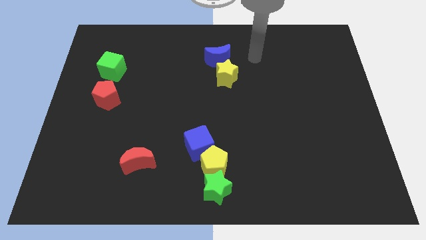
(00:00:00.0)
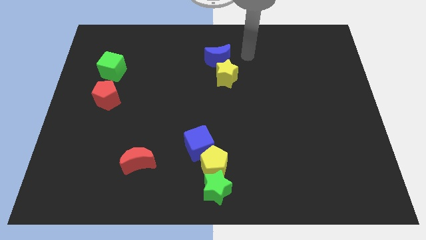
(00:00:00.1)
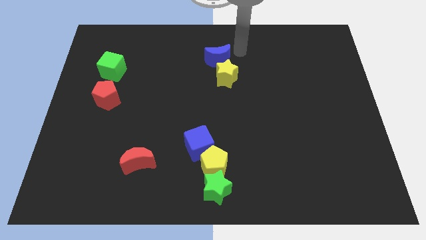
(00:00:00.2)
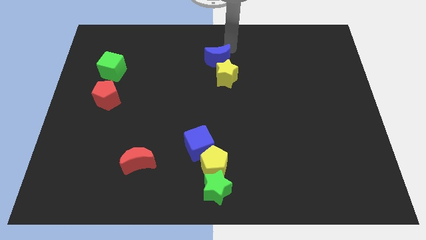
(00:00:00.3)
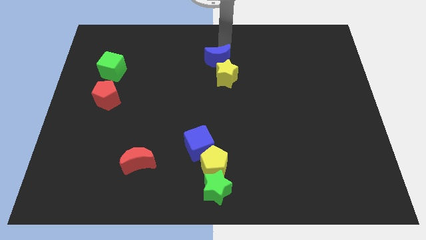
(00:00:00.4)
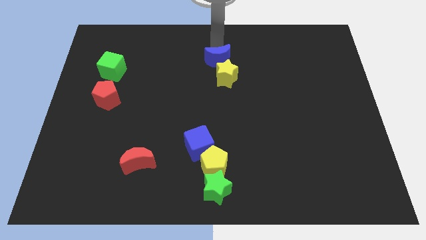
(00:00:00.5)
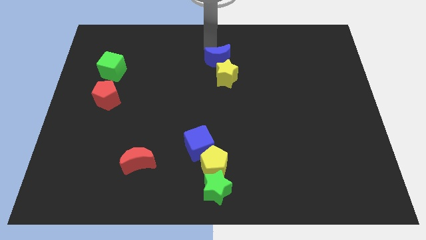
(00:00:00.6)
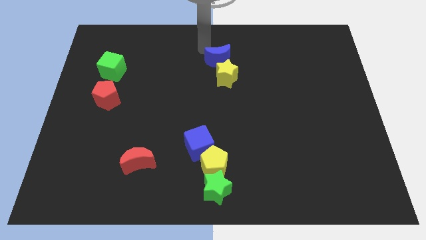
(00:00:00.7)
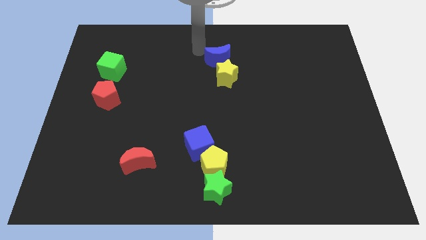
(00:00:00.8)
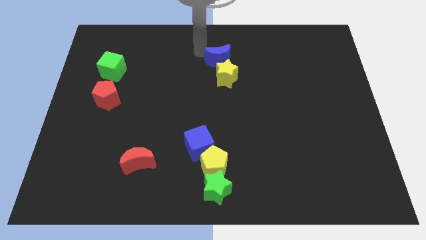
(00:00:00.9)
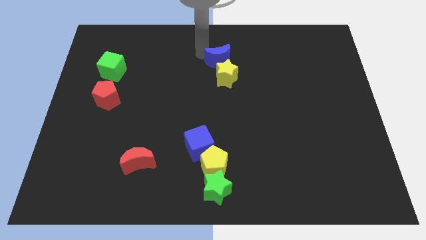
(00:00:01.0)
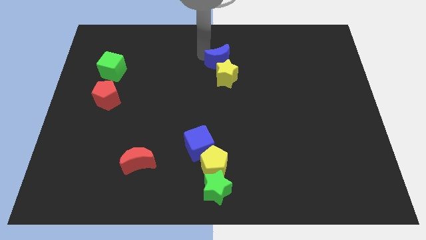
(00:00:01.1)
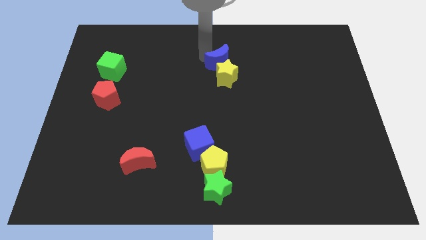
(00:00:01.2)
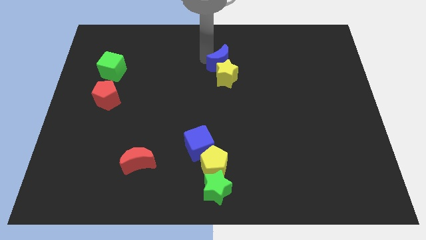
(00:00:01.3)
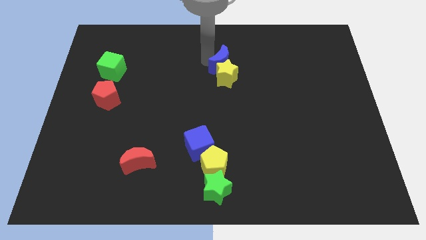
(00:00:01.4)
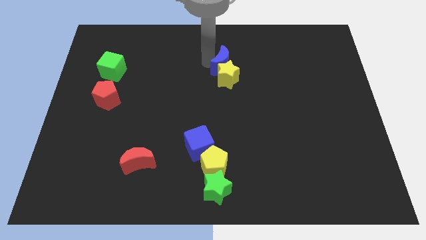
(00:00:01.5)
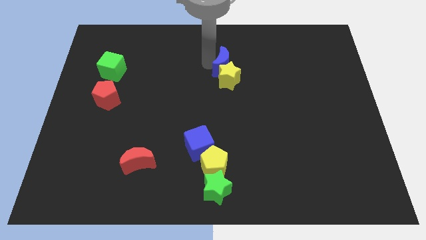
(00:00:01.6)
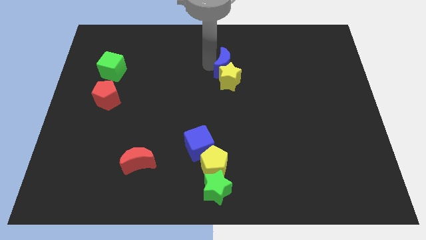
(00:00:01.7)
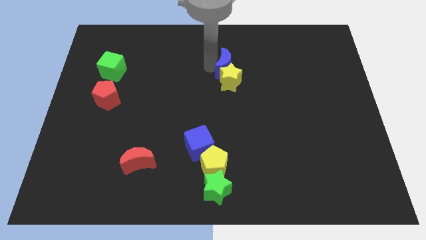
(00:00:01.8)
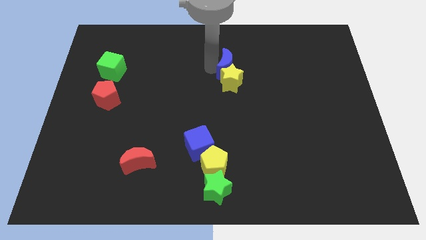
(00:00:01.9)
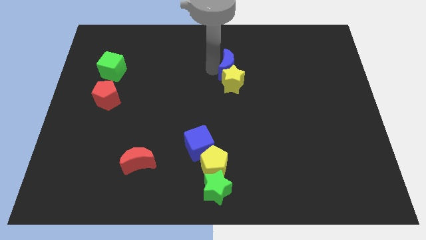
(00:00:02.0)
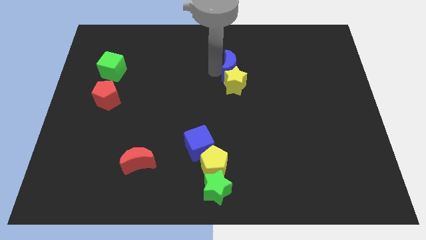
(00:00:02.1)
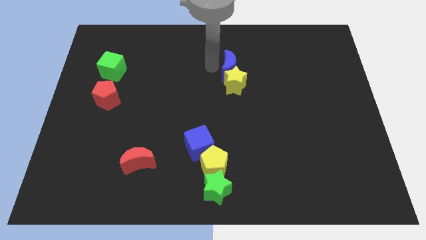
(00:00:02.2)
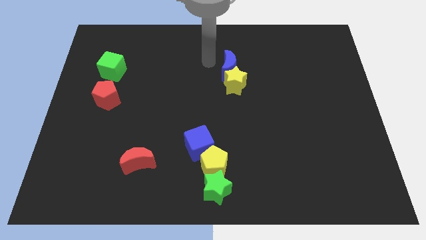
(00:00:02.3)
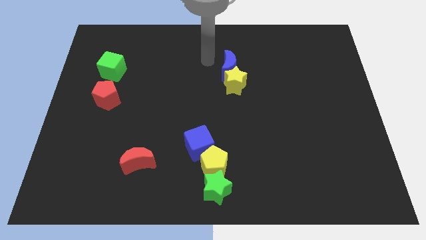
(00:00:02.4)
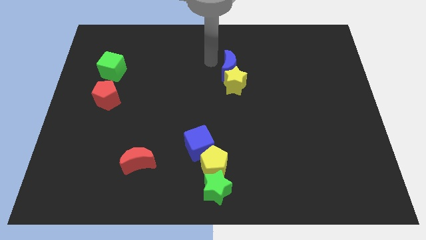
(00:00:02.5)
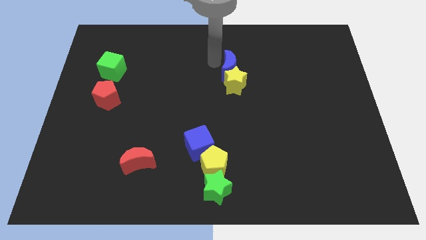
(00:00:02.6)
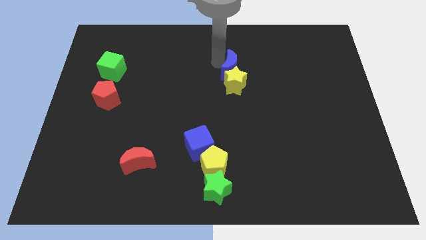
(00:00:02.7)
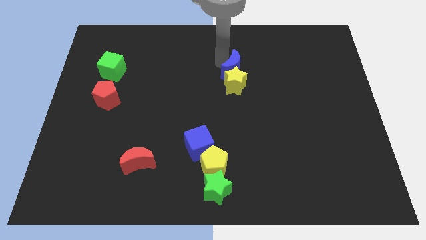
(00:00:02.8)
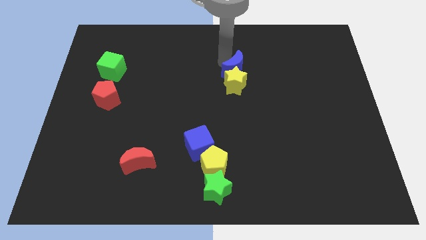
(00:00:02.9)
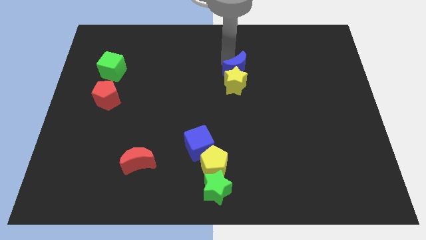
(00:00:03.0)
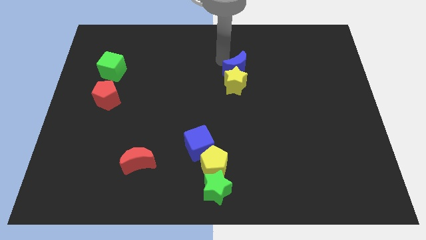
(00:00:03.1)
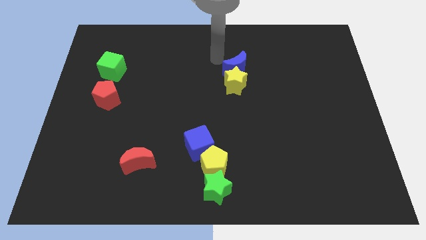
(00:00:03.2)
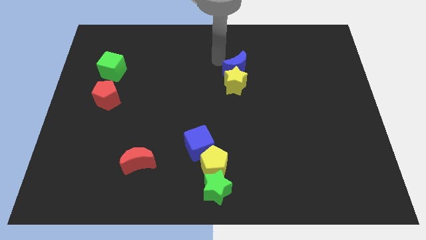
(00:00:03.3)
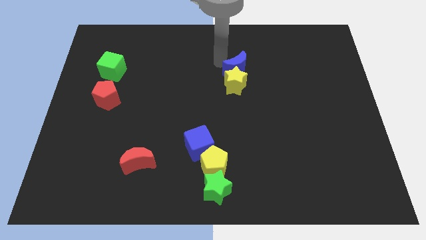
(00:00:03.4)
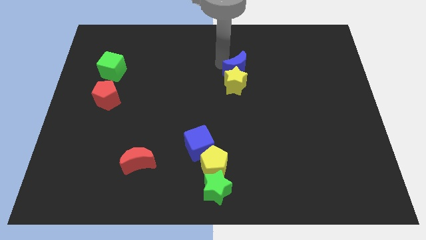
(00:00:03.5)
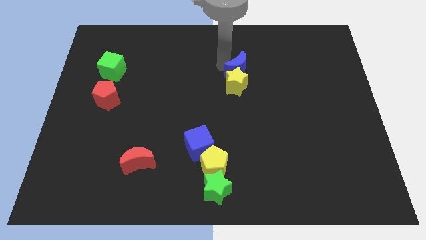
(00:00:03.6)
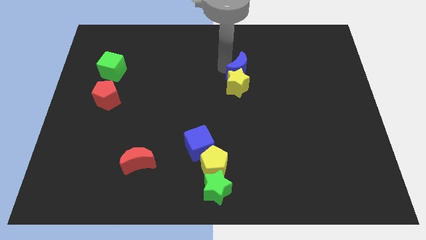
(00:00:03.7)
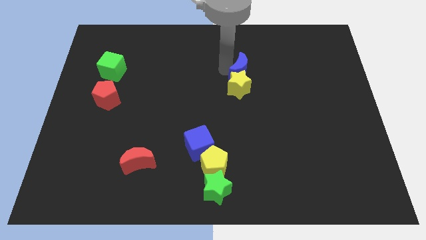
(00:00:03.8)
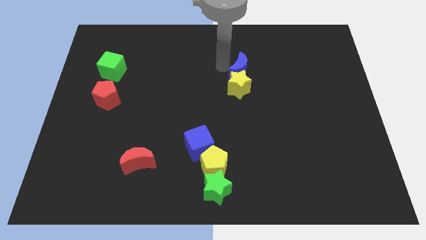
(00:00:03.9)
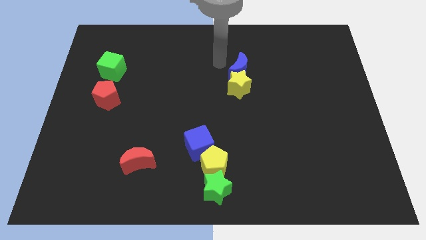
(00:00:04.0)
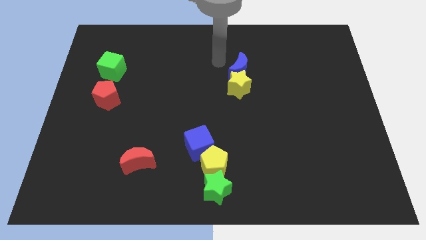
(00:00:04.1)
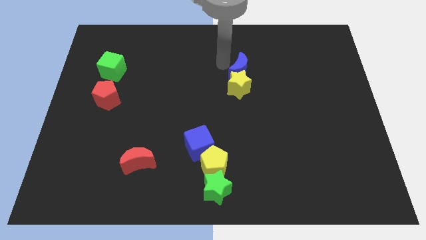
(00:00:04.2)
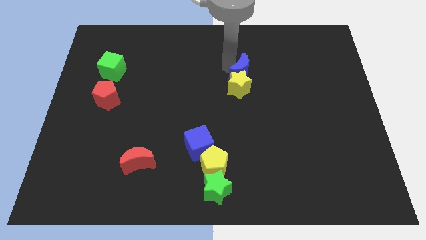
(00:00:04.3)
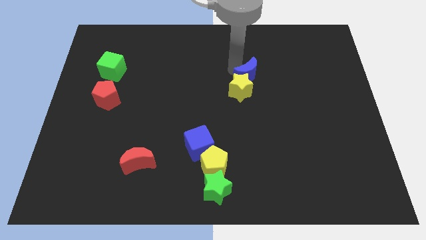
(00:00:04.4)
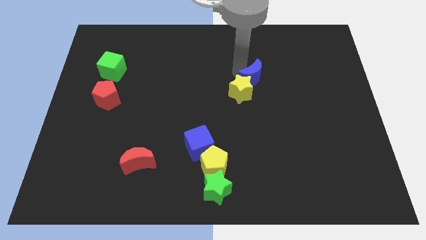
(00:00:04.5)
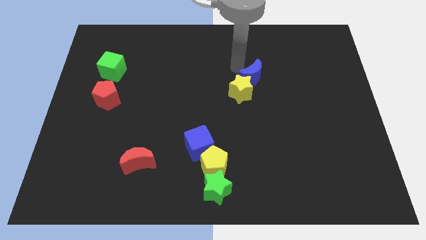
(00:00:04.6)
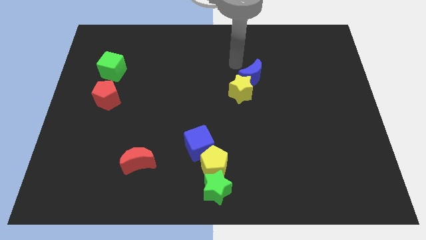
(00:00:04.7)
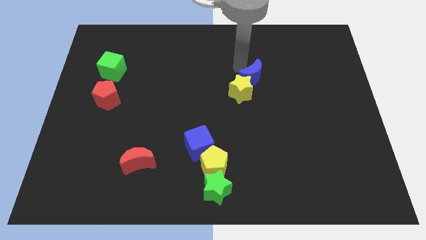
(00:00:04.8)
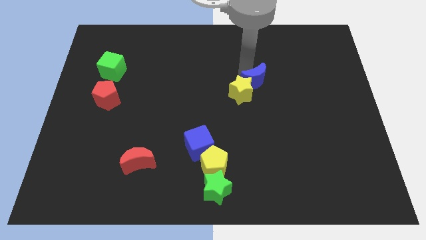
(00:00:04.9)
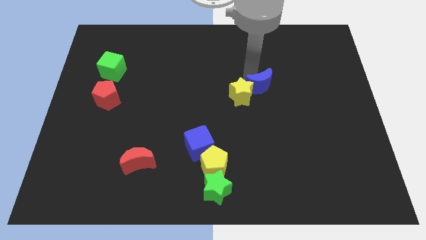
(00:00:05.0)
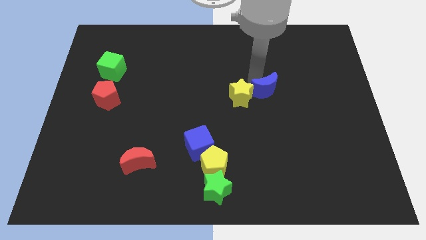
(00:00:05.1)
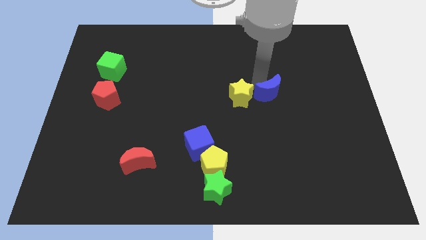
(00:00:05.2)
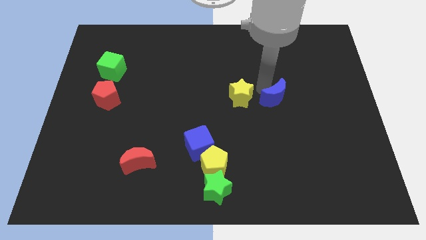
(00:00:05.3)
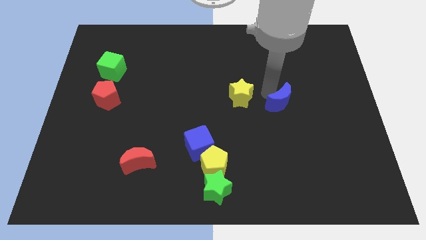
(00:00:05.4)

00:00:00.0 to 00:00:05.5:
slide the blue moon down and then right

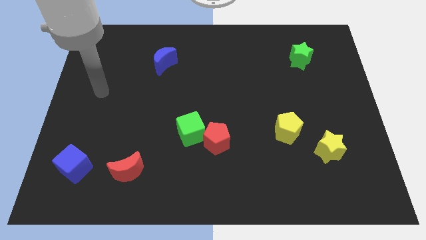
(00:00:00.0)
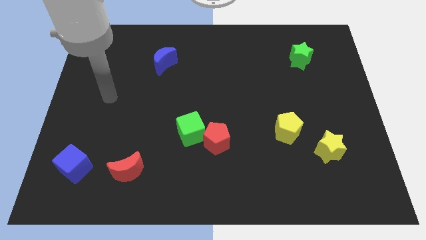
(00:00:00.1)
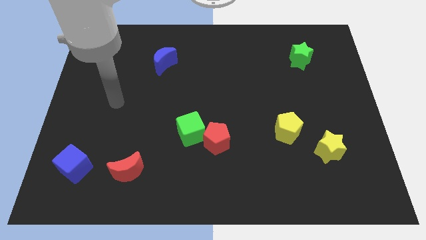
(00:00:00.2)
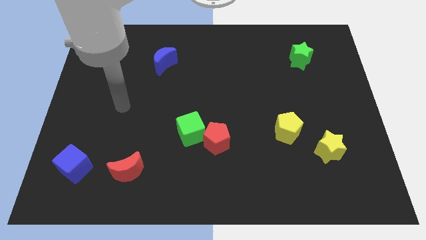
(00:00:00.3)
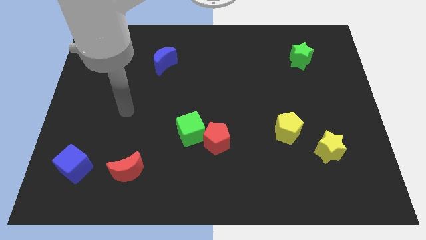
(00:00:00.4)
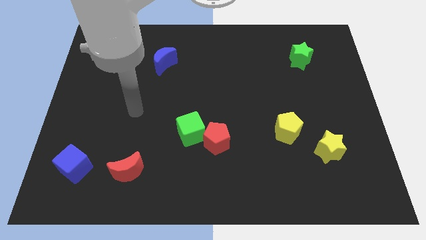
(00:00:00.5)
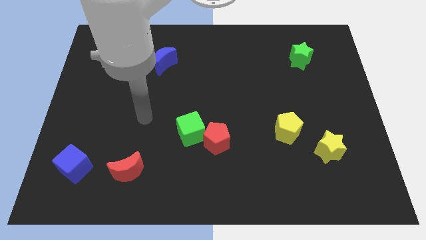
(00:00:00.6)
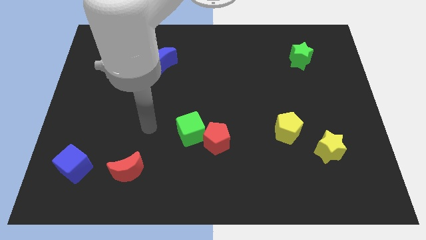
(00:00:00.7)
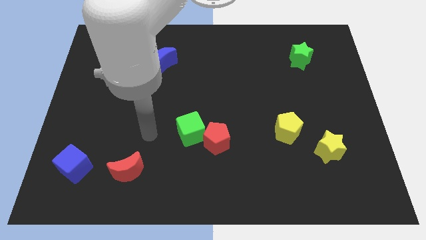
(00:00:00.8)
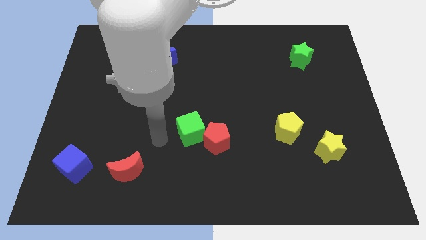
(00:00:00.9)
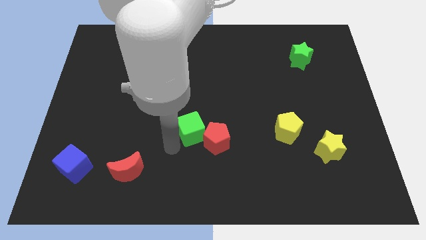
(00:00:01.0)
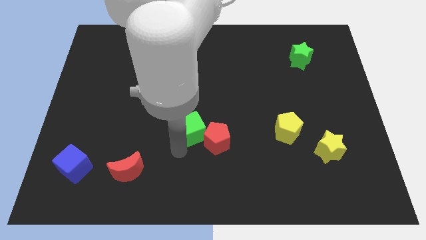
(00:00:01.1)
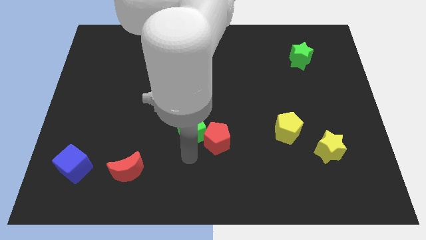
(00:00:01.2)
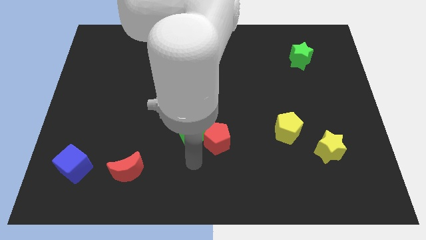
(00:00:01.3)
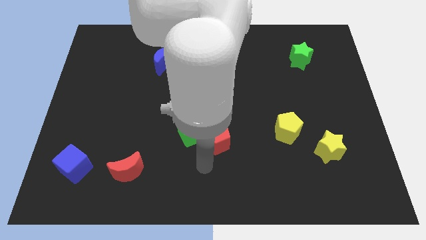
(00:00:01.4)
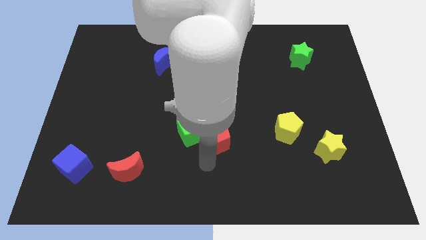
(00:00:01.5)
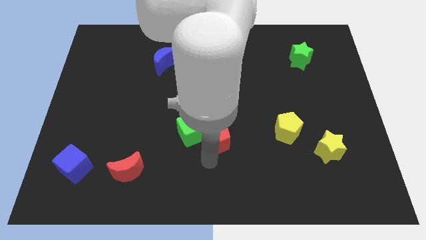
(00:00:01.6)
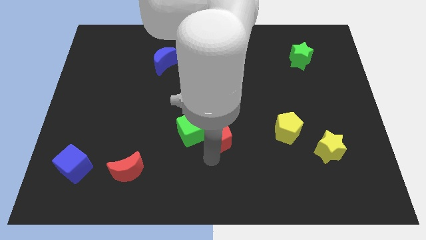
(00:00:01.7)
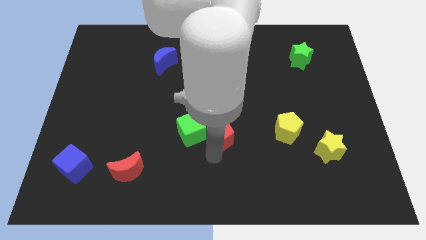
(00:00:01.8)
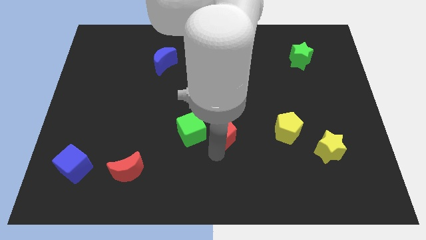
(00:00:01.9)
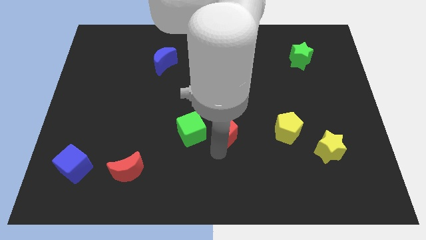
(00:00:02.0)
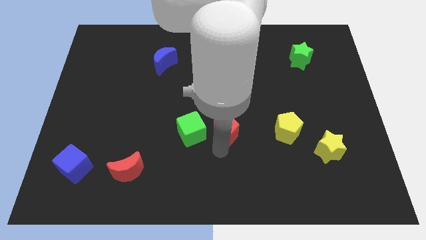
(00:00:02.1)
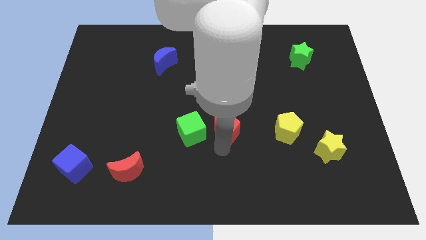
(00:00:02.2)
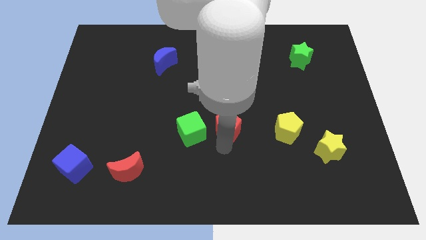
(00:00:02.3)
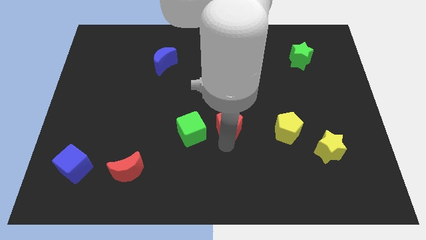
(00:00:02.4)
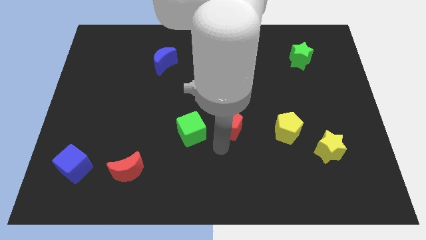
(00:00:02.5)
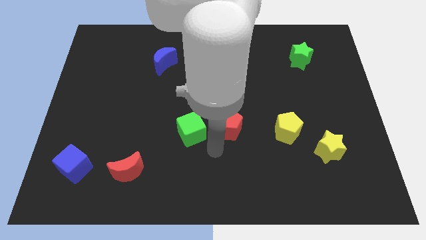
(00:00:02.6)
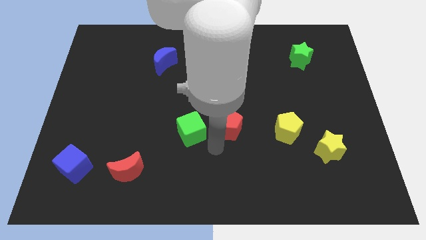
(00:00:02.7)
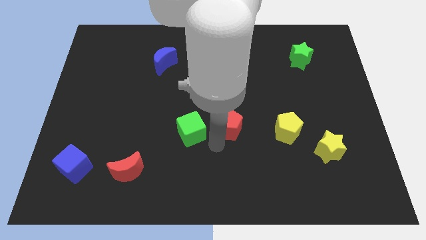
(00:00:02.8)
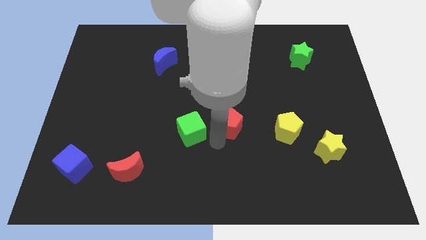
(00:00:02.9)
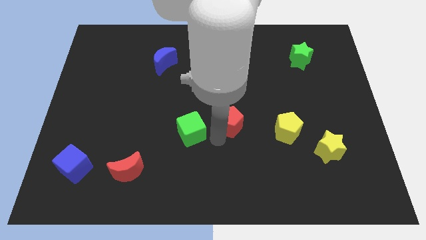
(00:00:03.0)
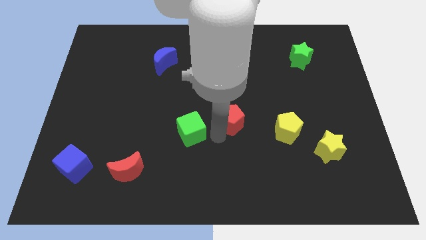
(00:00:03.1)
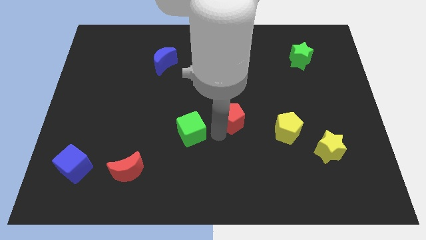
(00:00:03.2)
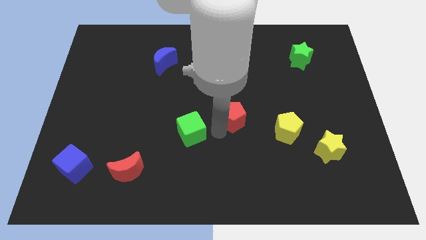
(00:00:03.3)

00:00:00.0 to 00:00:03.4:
slightly push the red pentagon diagonally upwards and to the right
